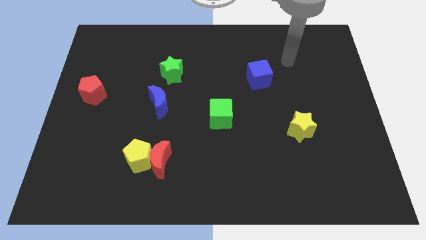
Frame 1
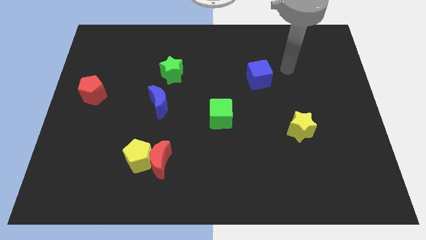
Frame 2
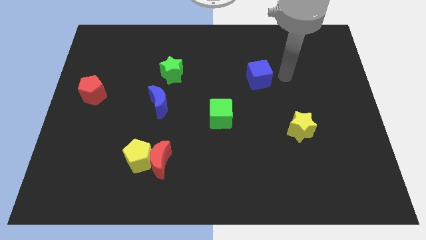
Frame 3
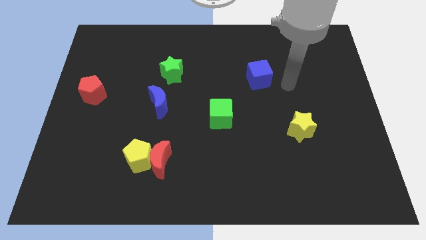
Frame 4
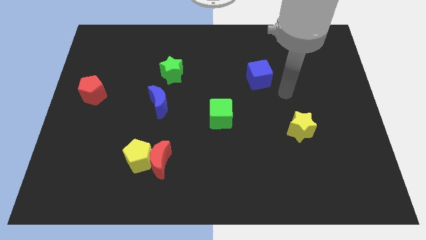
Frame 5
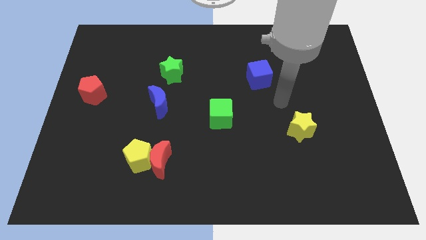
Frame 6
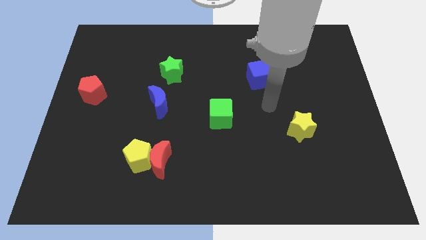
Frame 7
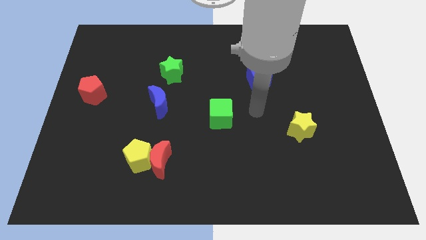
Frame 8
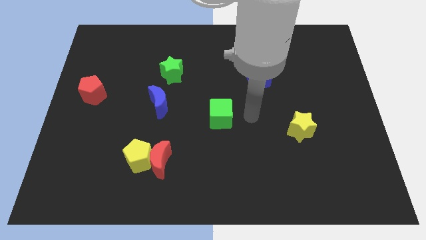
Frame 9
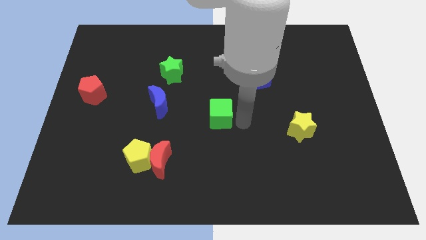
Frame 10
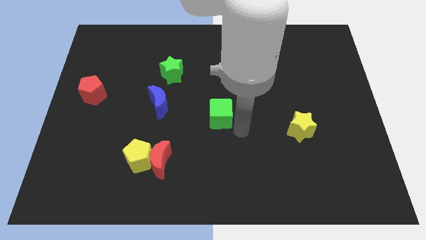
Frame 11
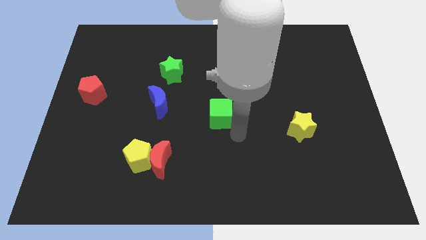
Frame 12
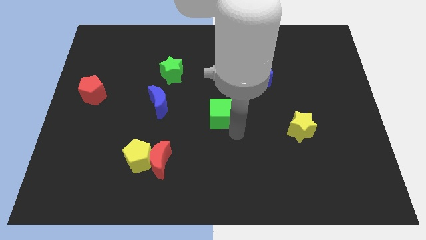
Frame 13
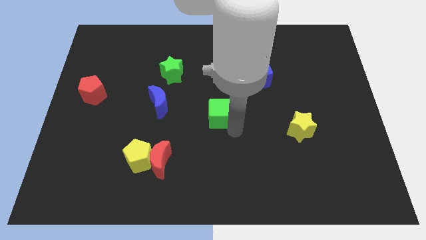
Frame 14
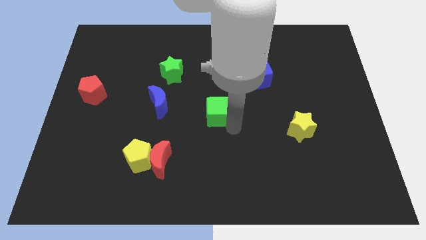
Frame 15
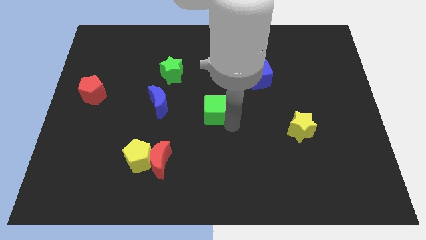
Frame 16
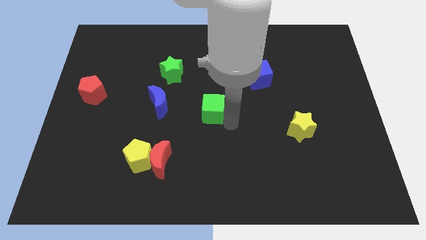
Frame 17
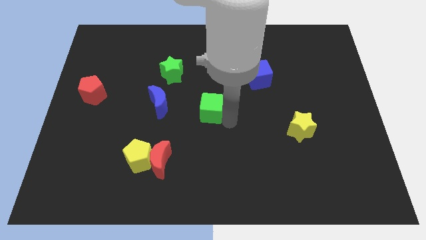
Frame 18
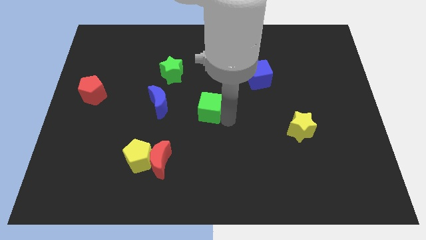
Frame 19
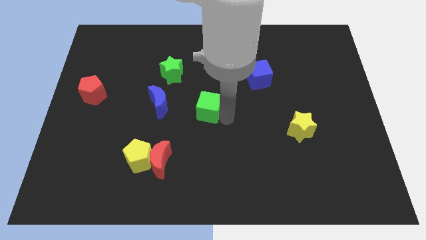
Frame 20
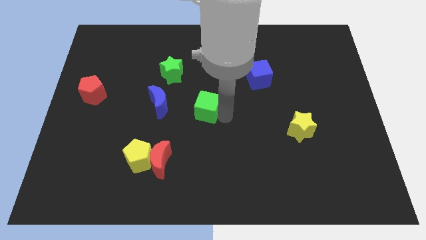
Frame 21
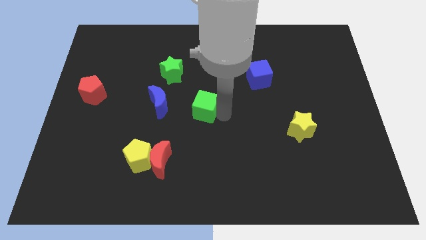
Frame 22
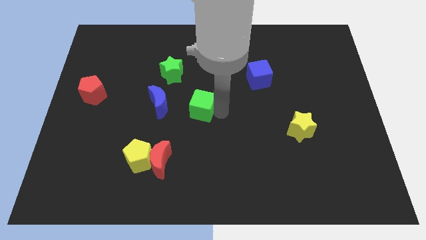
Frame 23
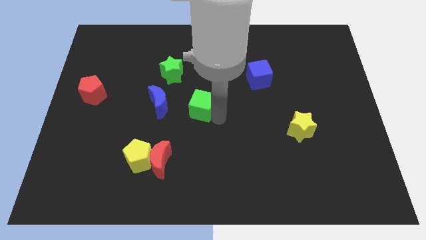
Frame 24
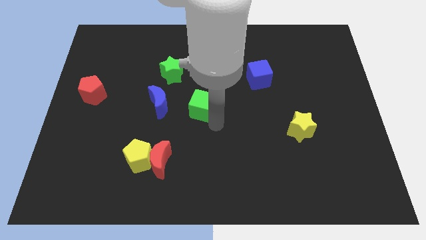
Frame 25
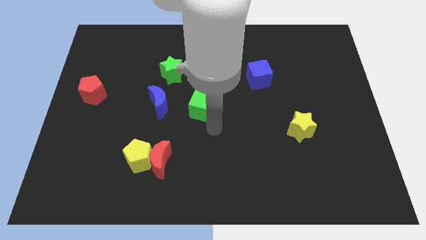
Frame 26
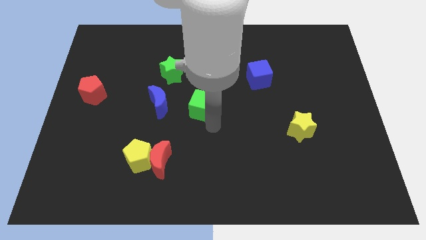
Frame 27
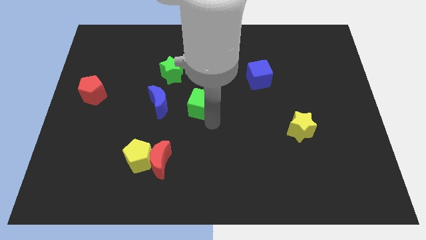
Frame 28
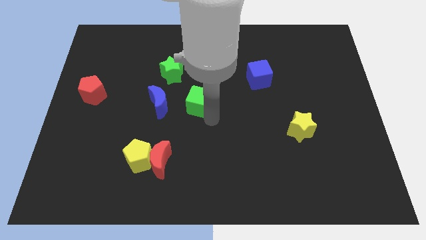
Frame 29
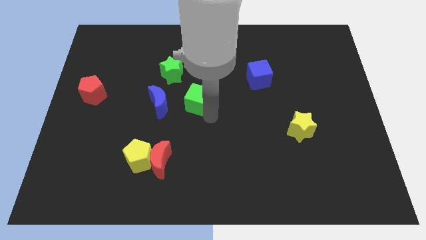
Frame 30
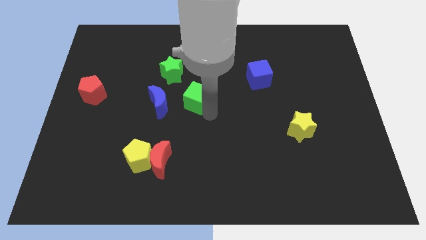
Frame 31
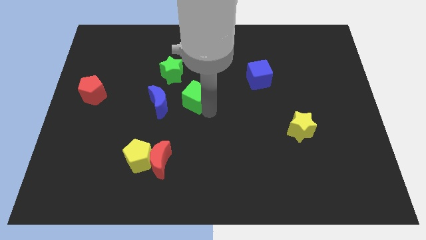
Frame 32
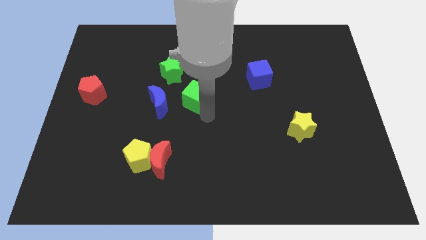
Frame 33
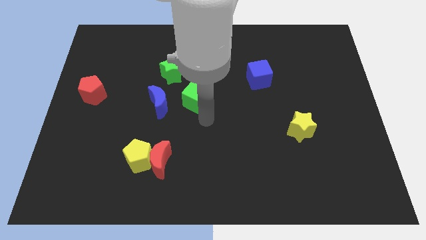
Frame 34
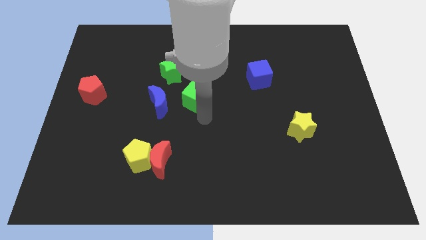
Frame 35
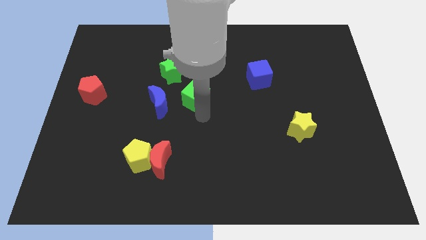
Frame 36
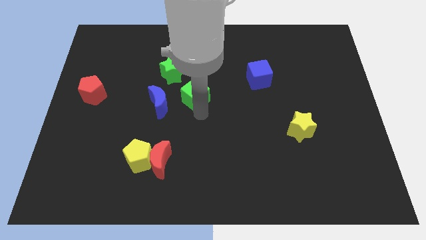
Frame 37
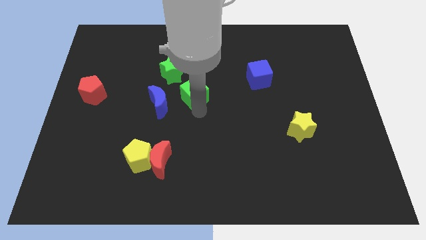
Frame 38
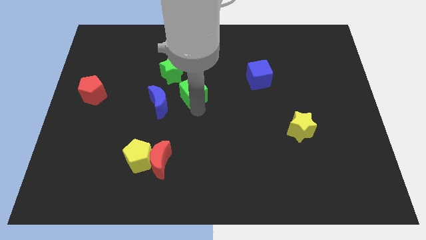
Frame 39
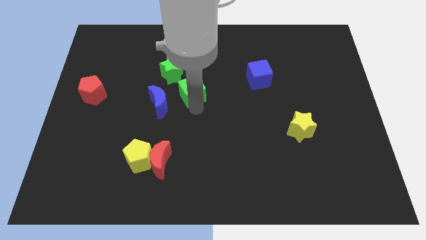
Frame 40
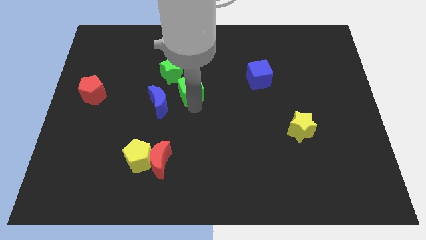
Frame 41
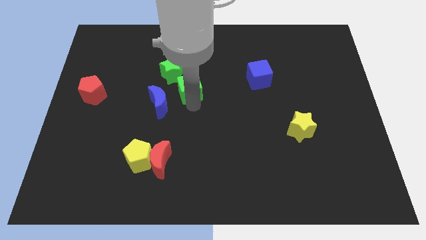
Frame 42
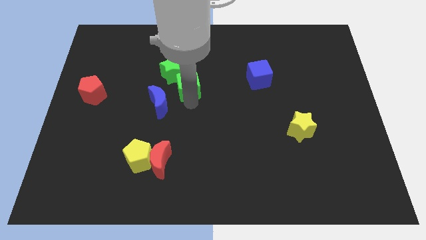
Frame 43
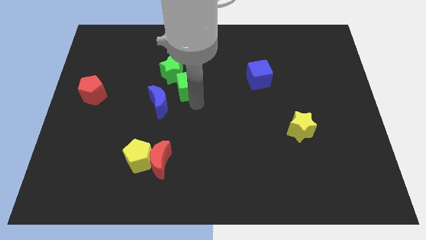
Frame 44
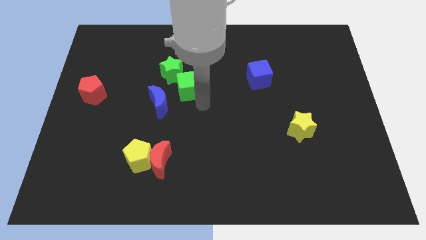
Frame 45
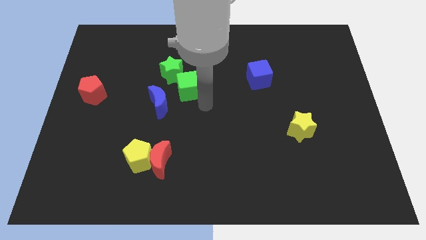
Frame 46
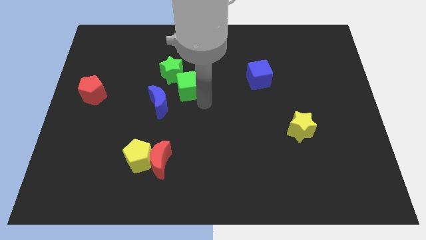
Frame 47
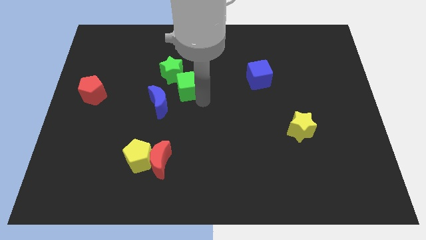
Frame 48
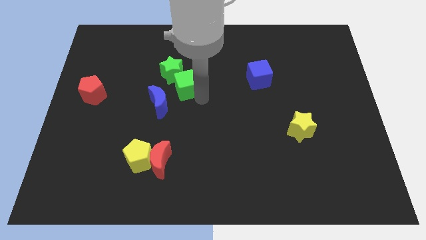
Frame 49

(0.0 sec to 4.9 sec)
put the green cube to the green star

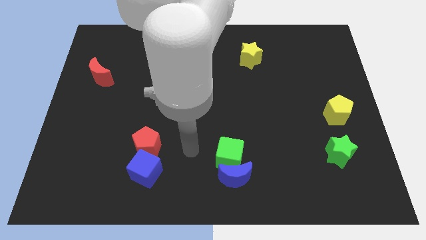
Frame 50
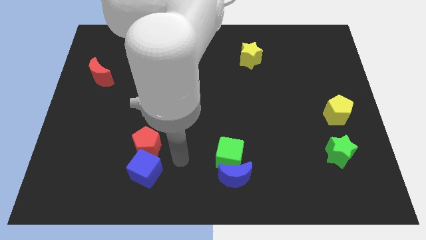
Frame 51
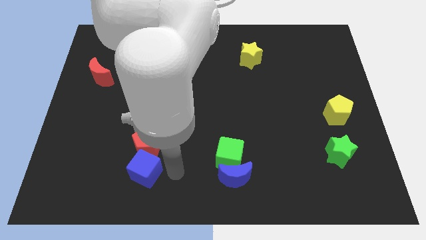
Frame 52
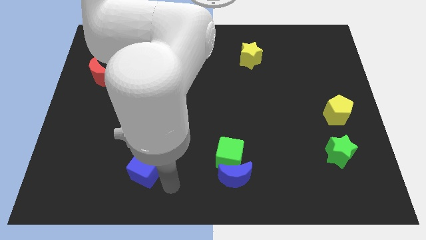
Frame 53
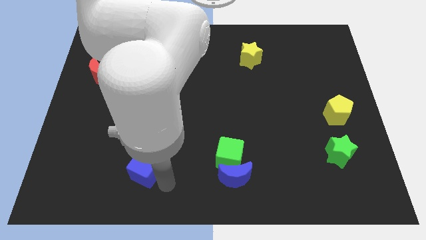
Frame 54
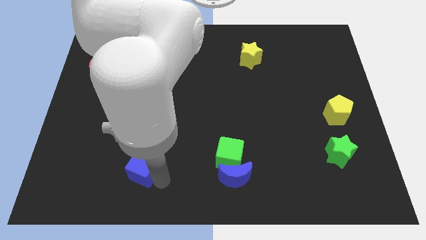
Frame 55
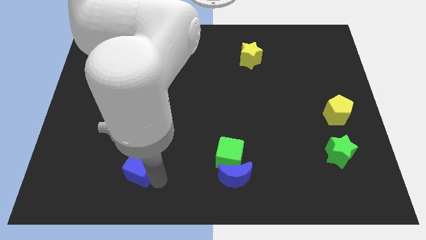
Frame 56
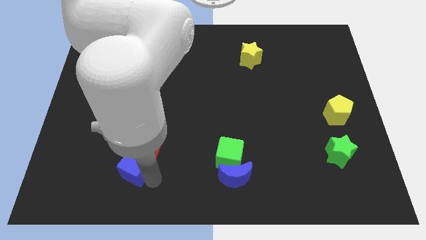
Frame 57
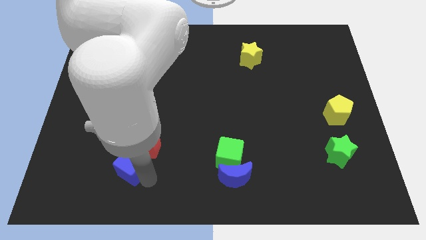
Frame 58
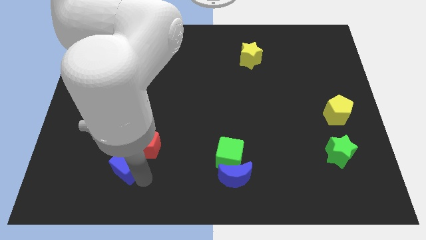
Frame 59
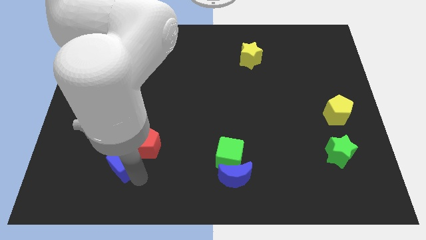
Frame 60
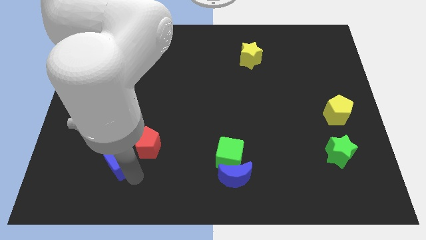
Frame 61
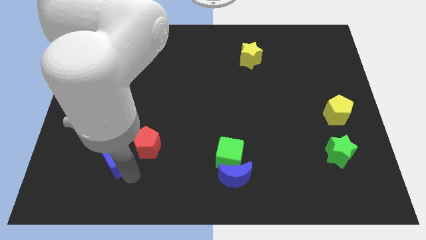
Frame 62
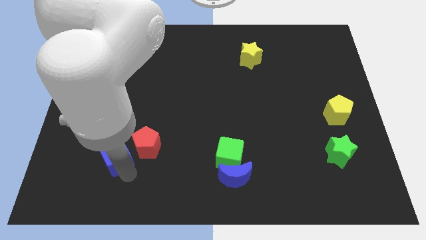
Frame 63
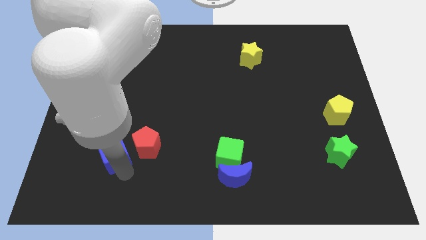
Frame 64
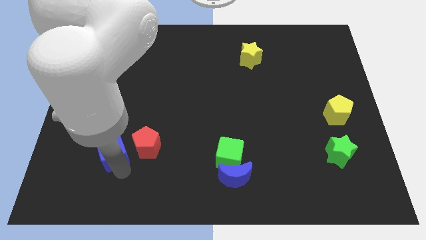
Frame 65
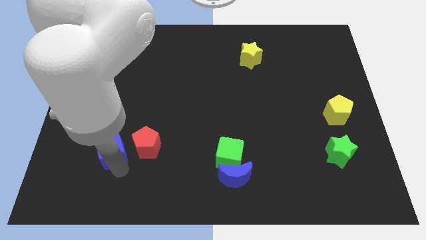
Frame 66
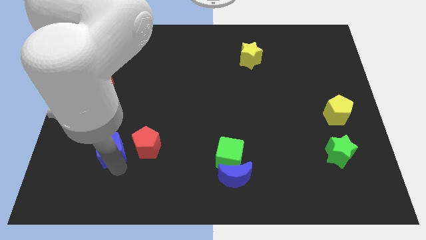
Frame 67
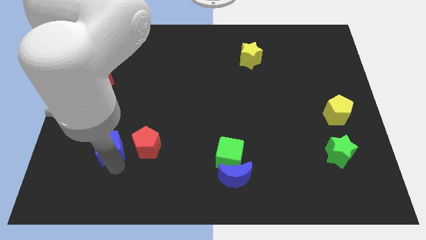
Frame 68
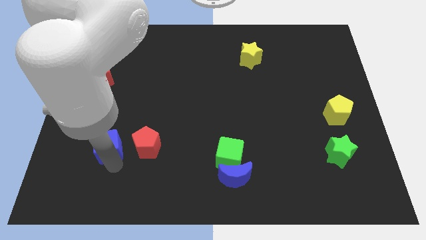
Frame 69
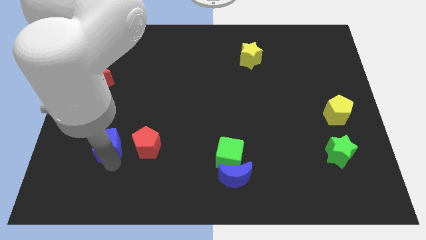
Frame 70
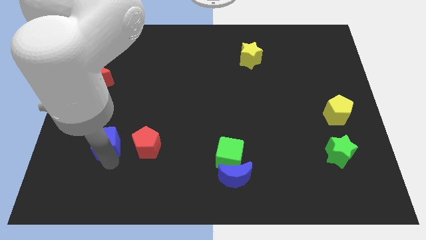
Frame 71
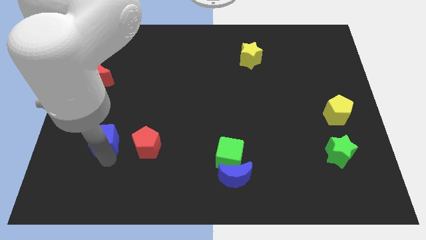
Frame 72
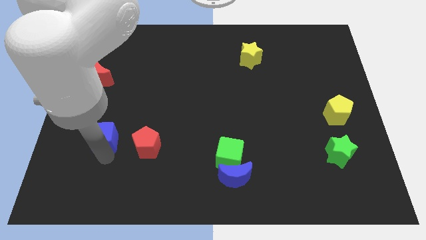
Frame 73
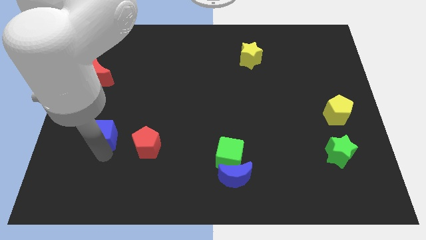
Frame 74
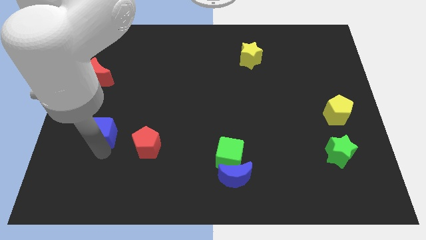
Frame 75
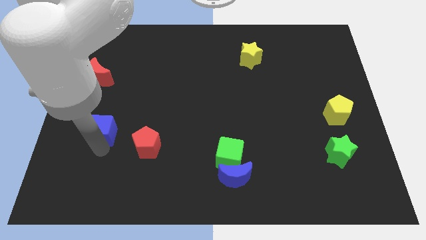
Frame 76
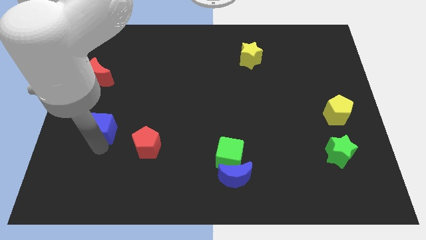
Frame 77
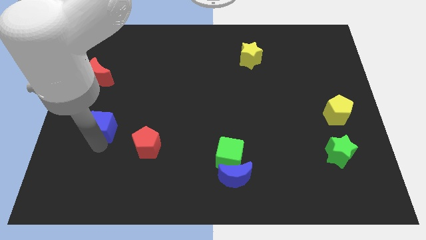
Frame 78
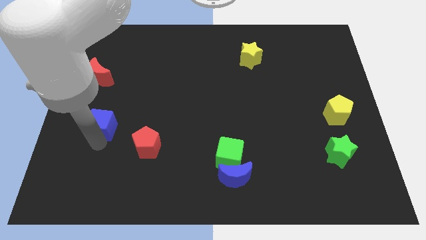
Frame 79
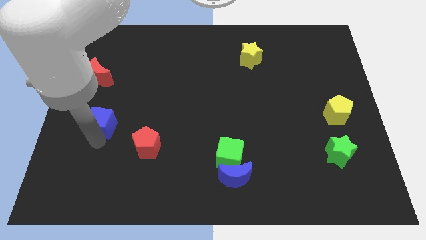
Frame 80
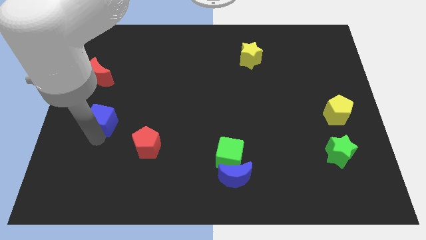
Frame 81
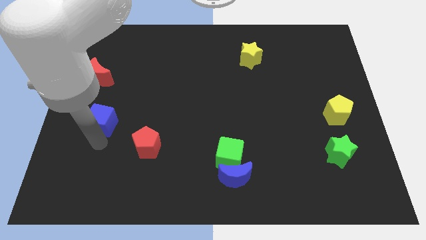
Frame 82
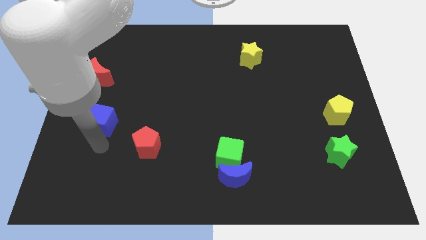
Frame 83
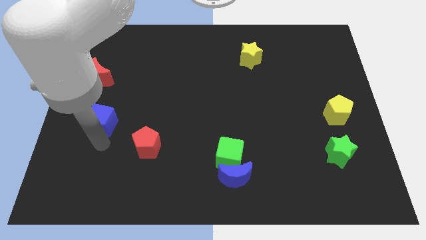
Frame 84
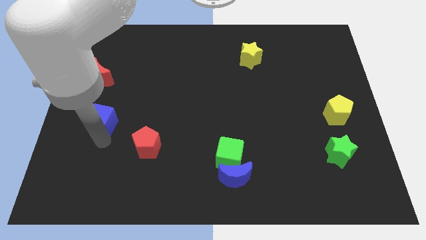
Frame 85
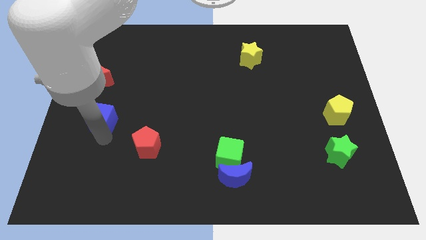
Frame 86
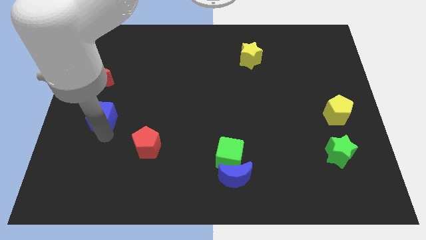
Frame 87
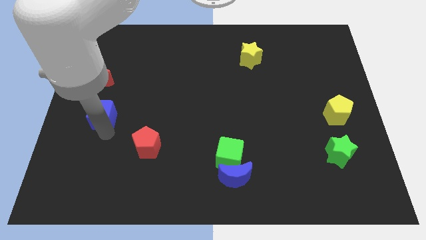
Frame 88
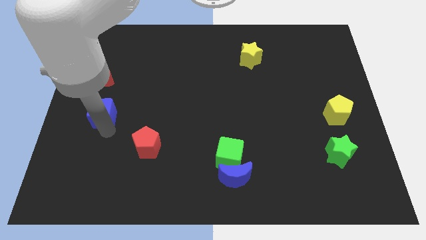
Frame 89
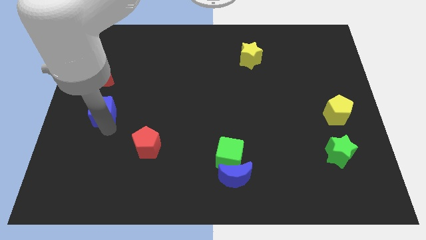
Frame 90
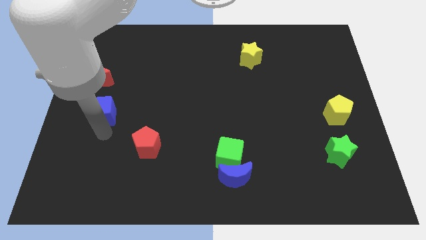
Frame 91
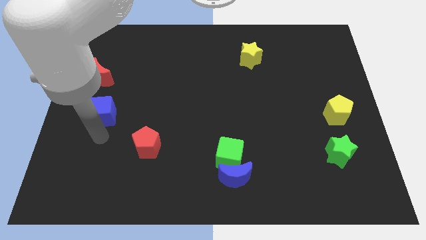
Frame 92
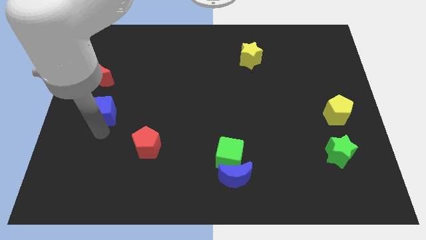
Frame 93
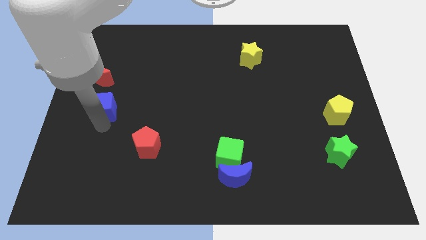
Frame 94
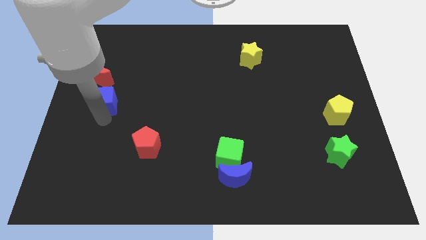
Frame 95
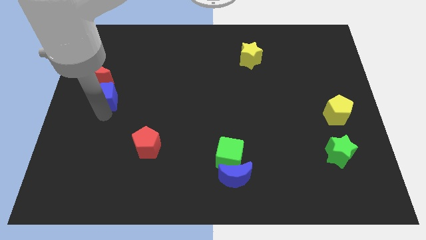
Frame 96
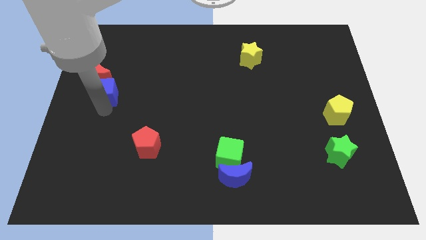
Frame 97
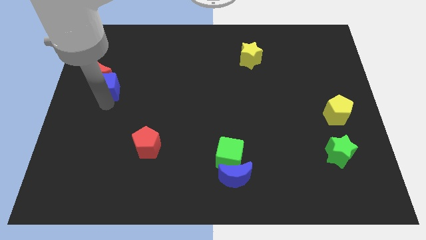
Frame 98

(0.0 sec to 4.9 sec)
push the blue cube close to the red moon
